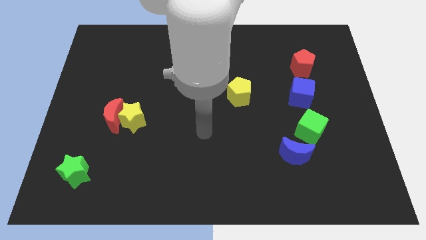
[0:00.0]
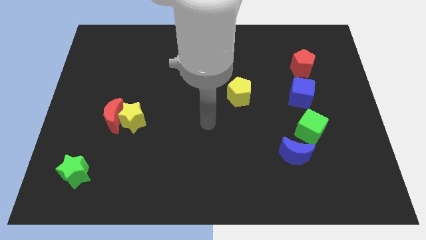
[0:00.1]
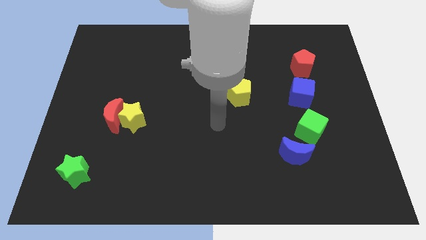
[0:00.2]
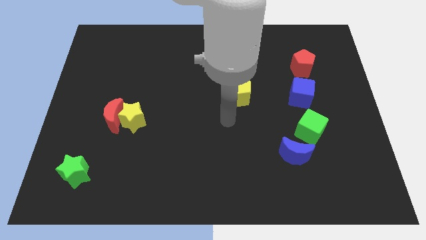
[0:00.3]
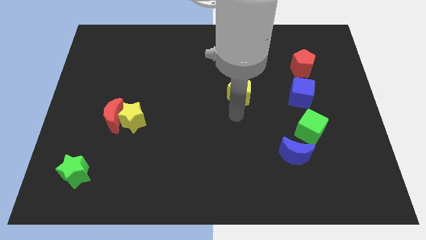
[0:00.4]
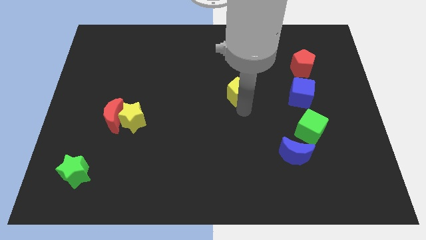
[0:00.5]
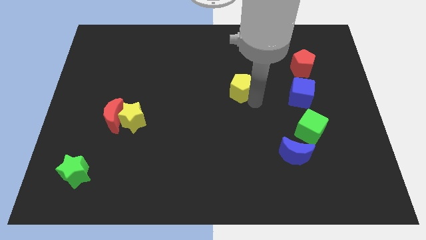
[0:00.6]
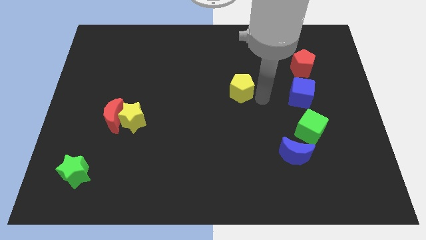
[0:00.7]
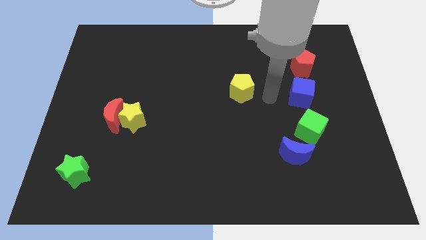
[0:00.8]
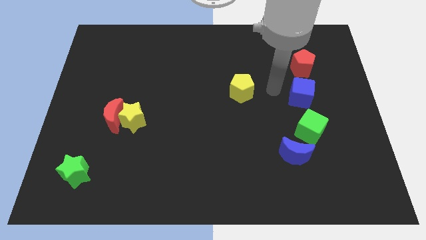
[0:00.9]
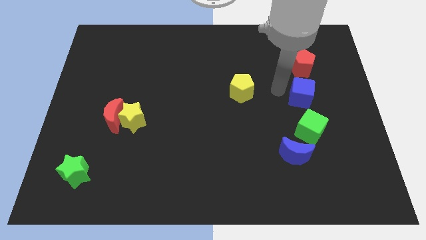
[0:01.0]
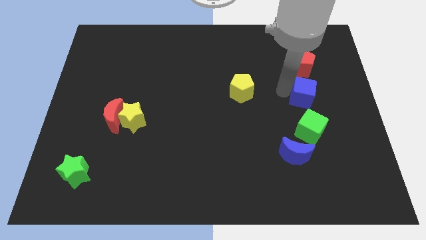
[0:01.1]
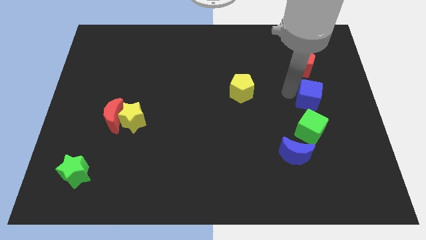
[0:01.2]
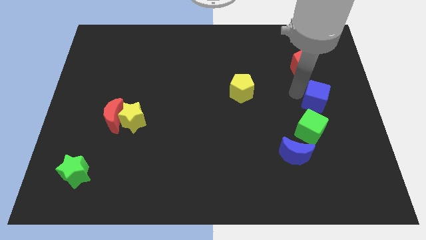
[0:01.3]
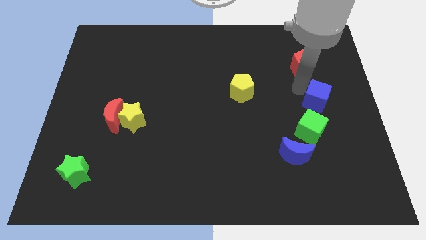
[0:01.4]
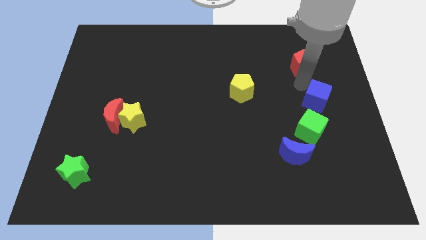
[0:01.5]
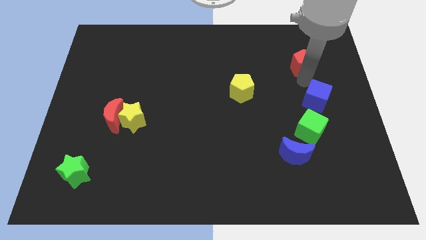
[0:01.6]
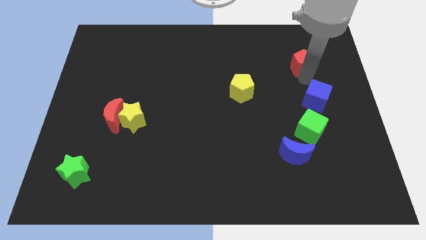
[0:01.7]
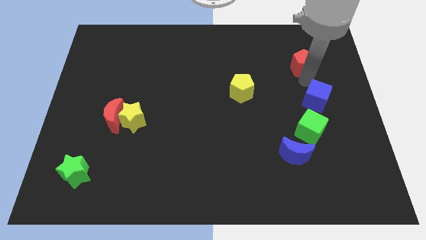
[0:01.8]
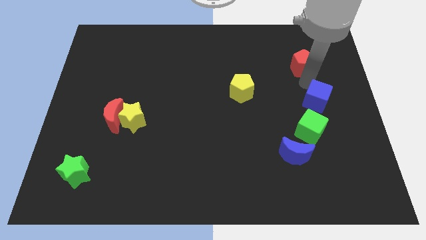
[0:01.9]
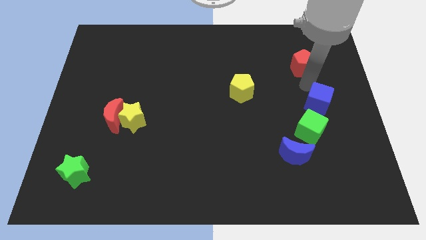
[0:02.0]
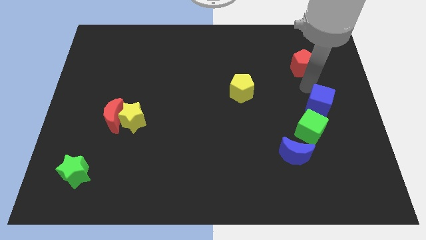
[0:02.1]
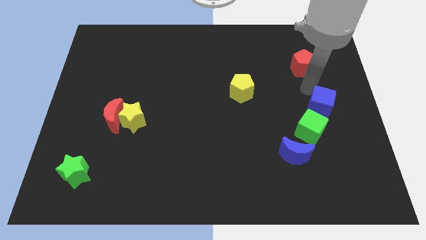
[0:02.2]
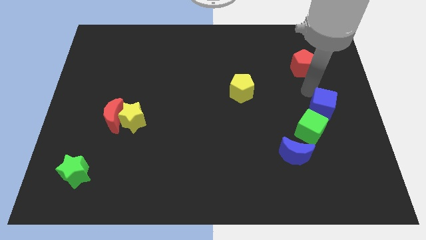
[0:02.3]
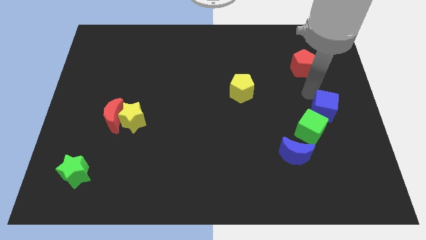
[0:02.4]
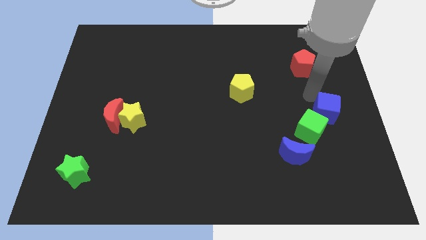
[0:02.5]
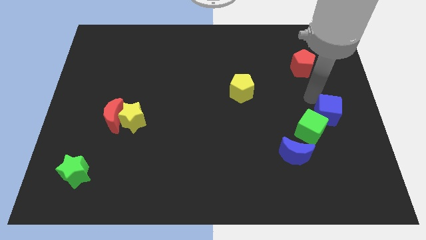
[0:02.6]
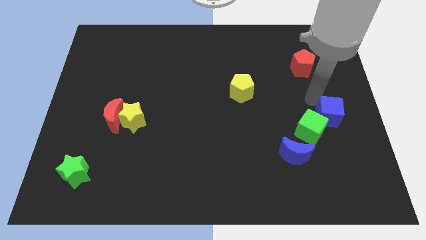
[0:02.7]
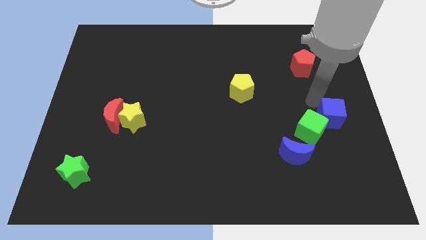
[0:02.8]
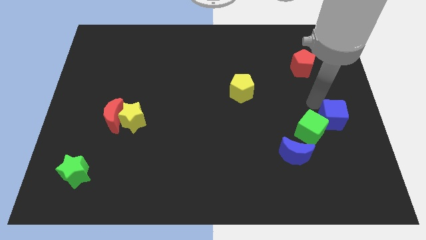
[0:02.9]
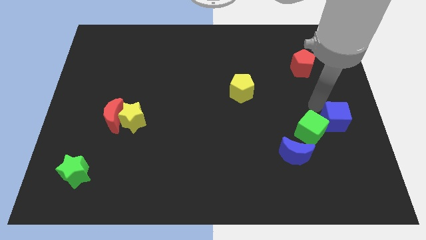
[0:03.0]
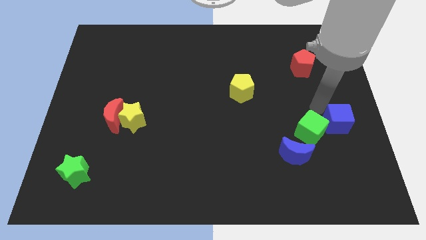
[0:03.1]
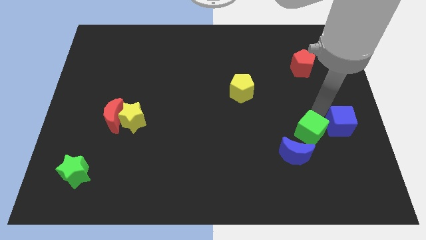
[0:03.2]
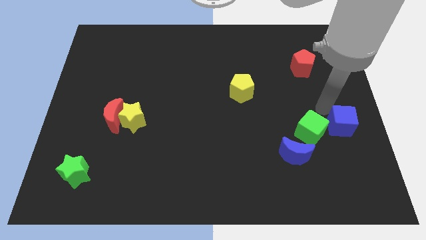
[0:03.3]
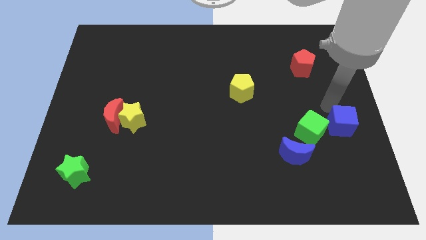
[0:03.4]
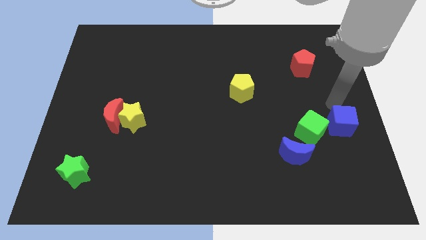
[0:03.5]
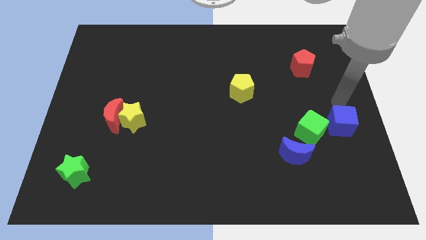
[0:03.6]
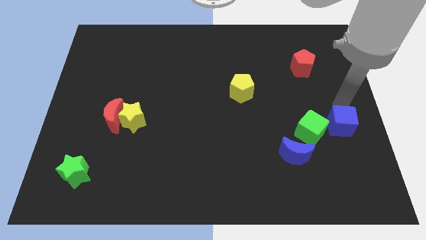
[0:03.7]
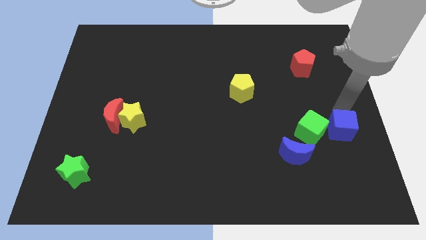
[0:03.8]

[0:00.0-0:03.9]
push the blue cube downwards a bit

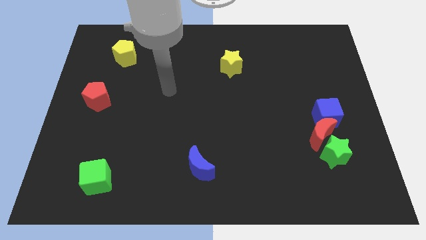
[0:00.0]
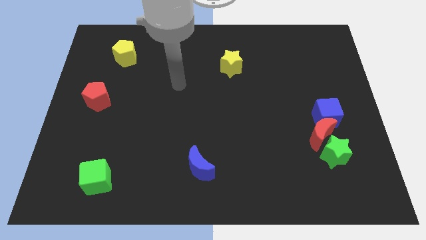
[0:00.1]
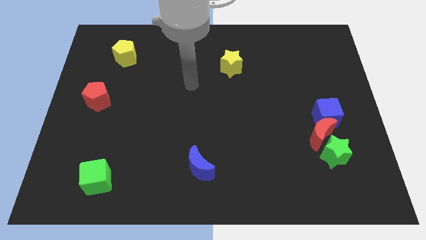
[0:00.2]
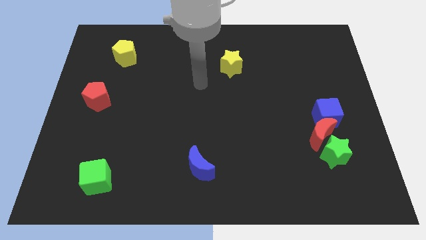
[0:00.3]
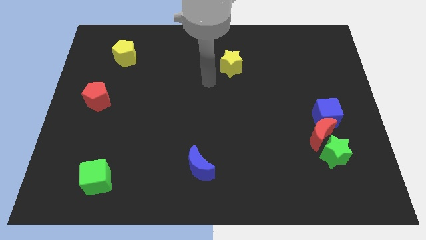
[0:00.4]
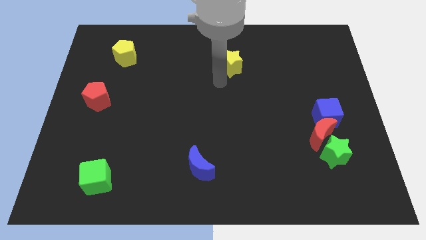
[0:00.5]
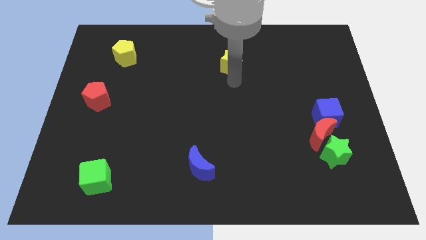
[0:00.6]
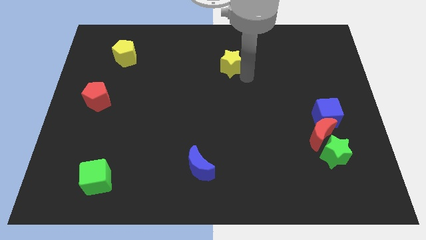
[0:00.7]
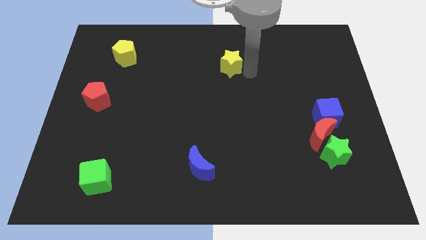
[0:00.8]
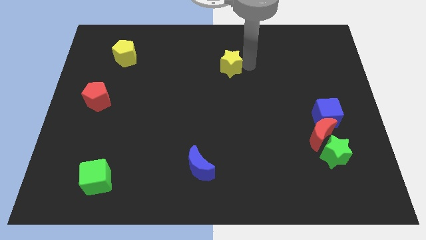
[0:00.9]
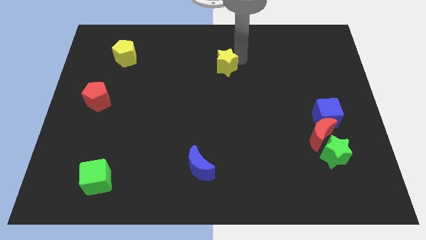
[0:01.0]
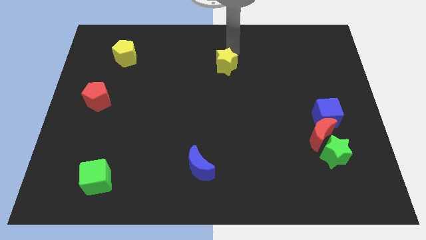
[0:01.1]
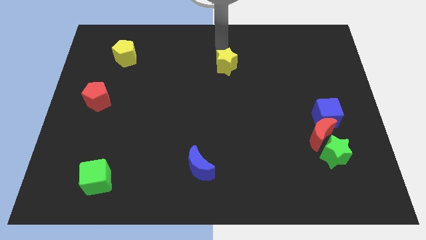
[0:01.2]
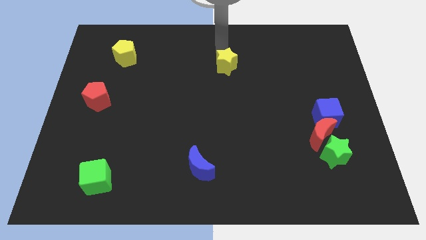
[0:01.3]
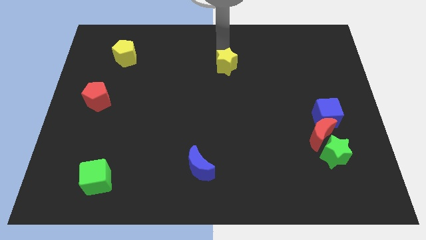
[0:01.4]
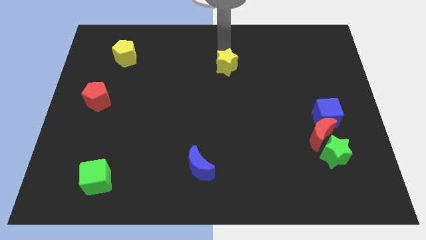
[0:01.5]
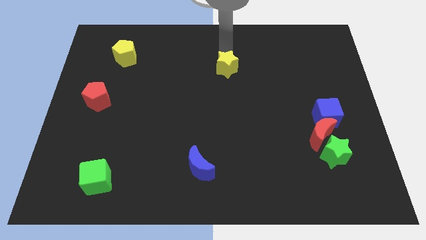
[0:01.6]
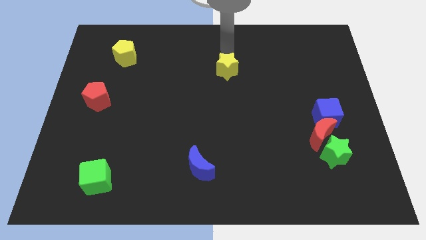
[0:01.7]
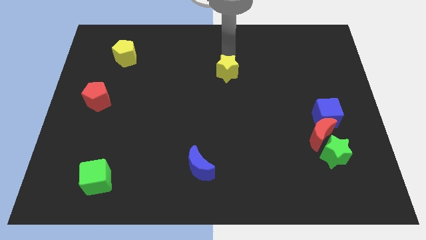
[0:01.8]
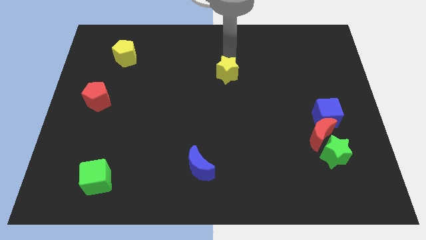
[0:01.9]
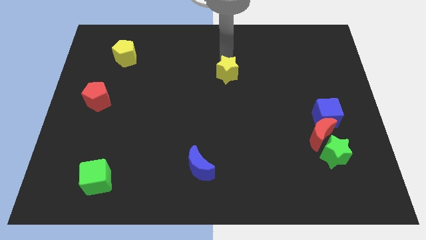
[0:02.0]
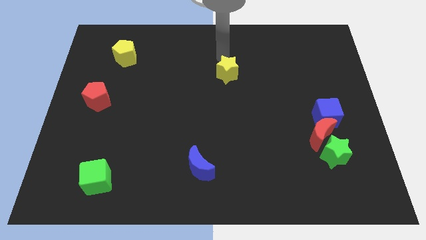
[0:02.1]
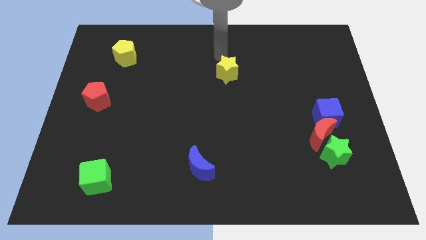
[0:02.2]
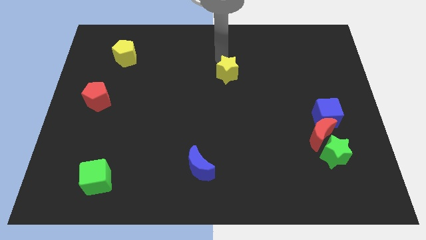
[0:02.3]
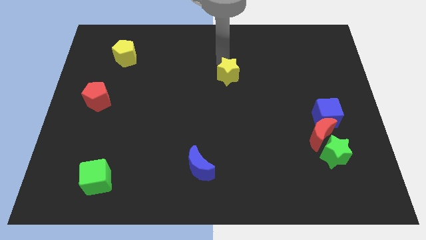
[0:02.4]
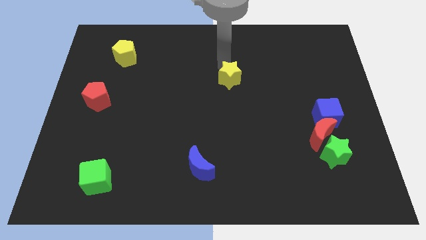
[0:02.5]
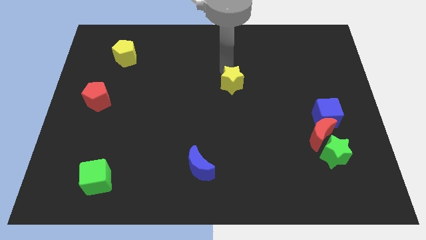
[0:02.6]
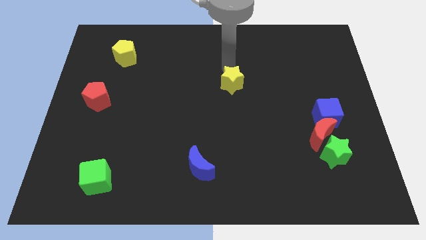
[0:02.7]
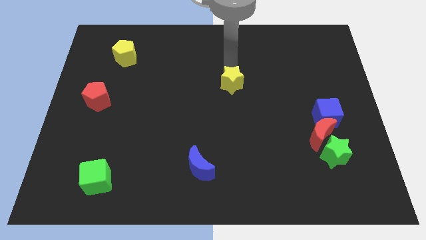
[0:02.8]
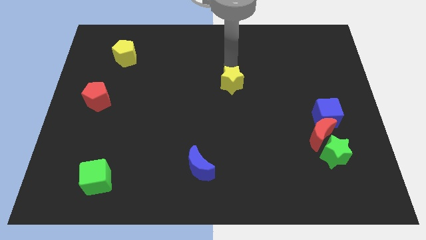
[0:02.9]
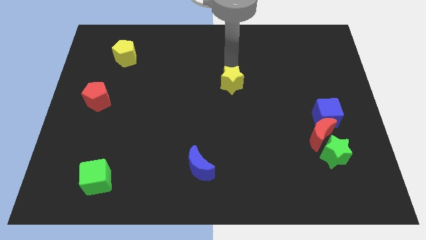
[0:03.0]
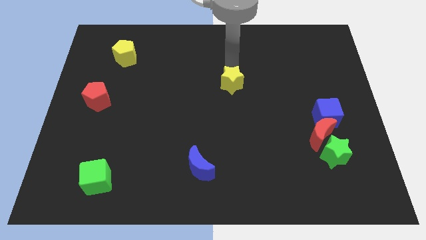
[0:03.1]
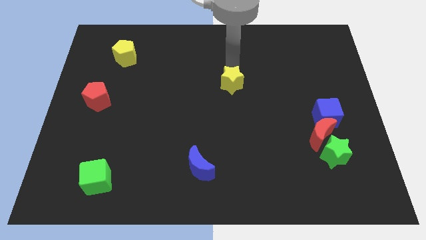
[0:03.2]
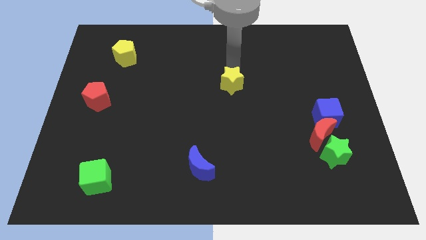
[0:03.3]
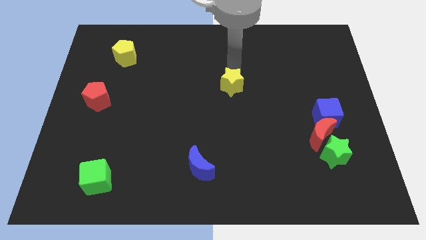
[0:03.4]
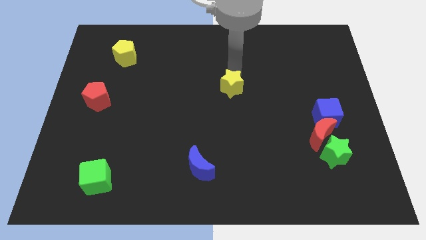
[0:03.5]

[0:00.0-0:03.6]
slide the yellow star slightly down

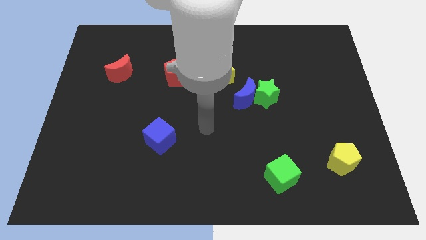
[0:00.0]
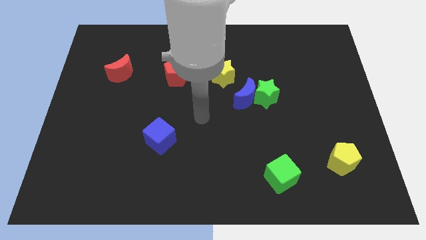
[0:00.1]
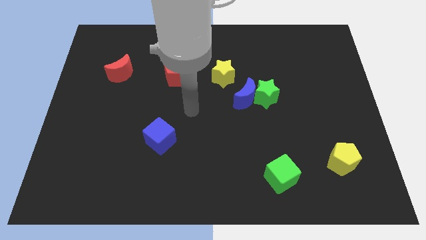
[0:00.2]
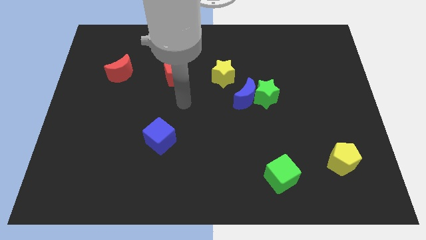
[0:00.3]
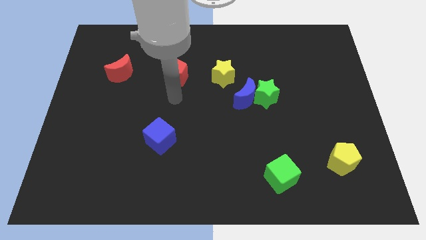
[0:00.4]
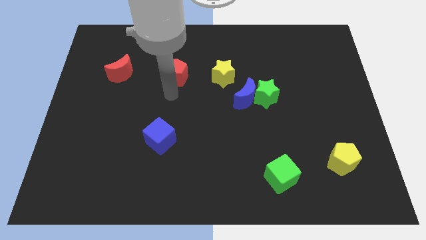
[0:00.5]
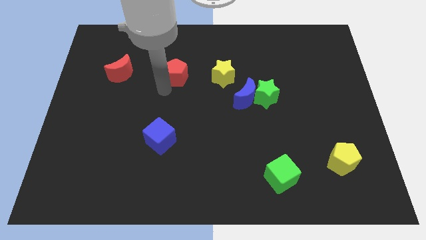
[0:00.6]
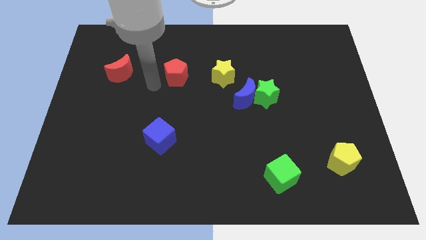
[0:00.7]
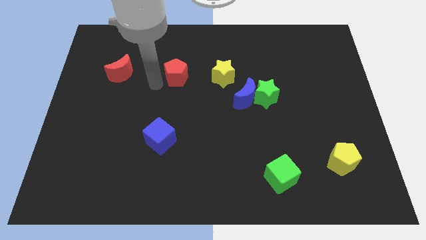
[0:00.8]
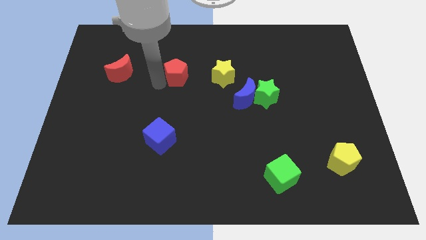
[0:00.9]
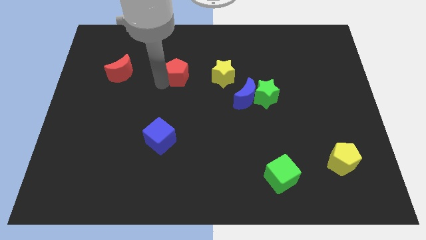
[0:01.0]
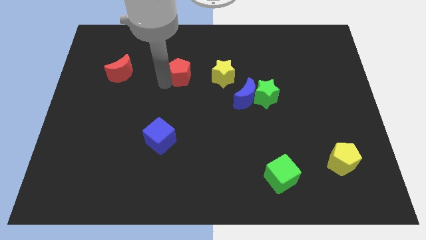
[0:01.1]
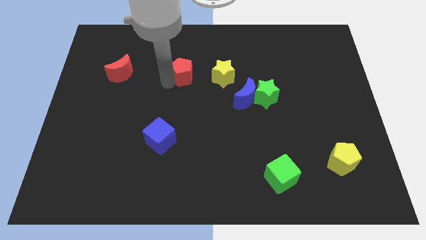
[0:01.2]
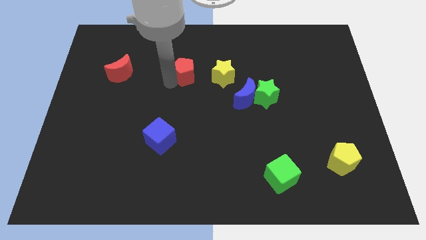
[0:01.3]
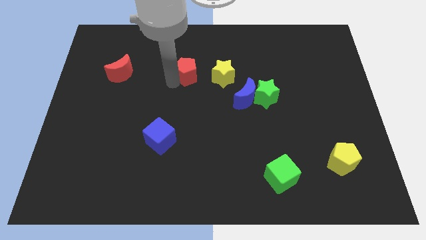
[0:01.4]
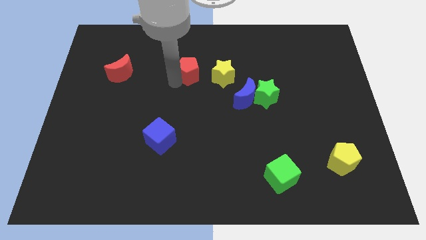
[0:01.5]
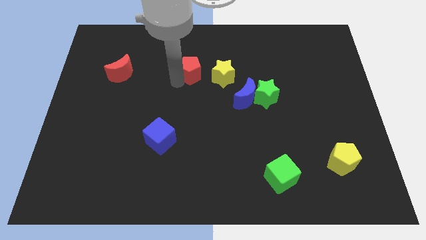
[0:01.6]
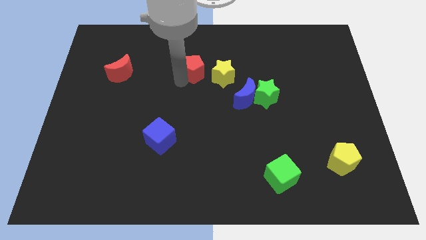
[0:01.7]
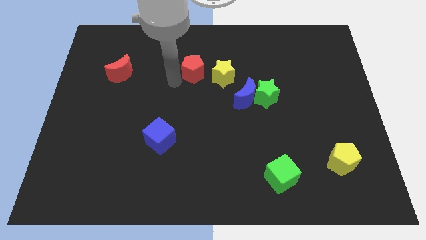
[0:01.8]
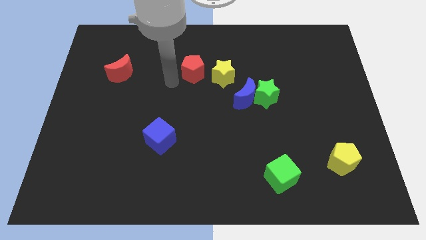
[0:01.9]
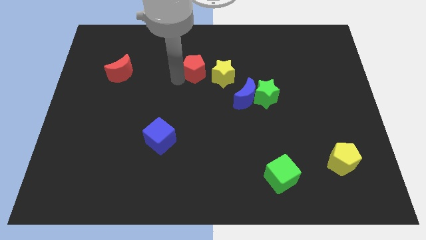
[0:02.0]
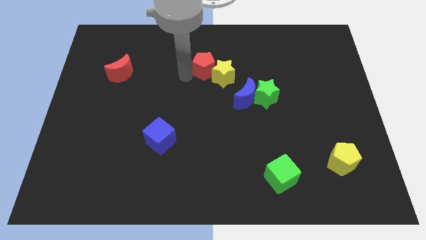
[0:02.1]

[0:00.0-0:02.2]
push the red pentagon slightly right
